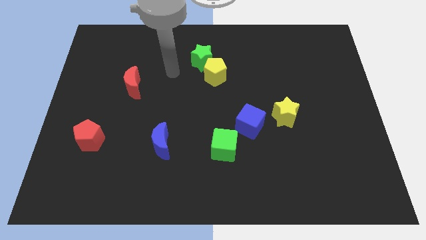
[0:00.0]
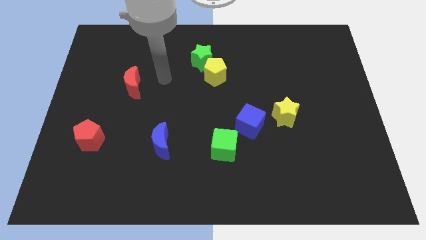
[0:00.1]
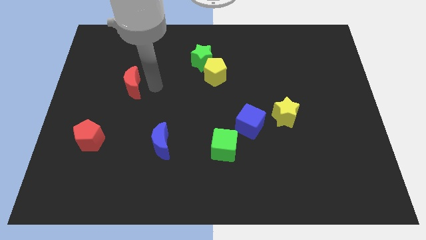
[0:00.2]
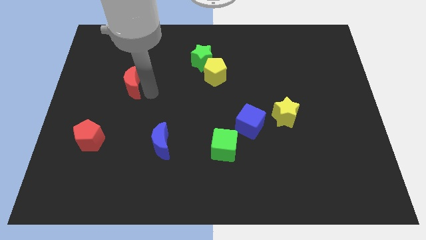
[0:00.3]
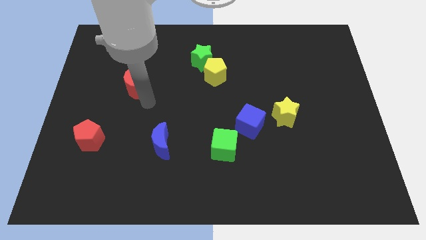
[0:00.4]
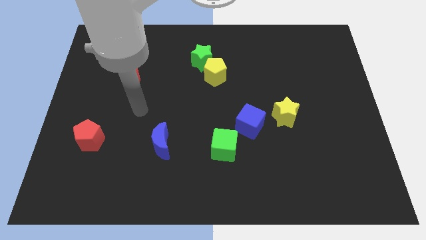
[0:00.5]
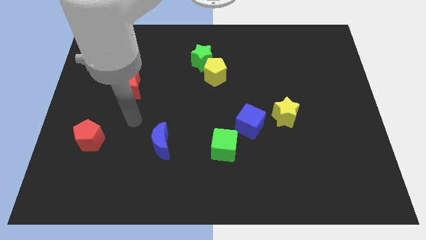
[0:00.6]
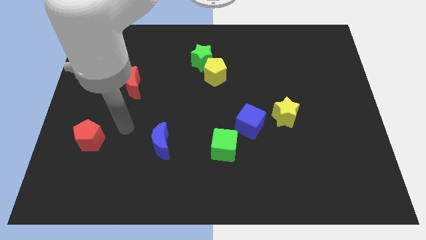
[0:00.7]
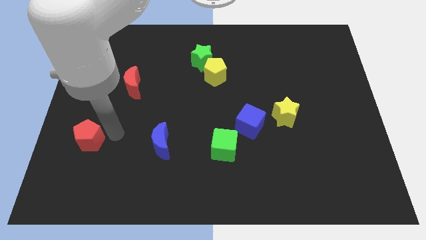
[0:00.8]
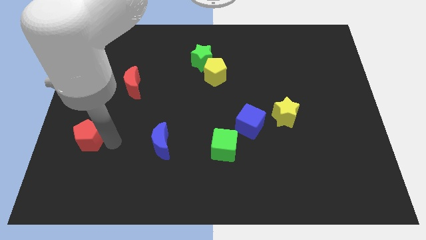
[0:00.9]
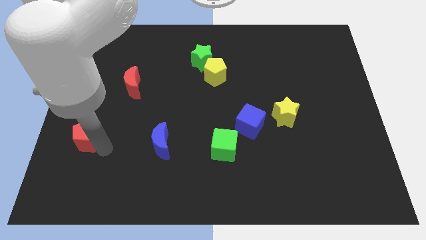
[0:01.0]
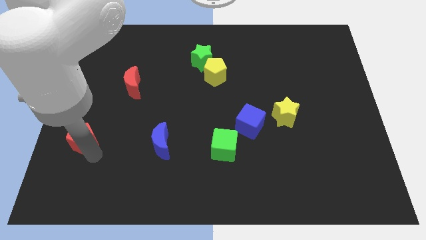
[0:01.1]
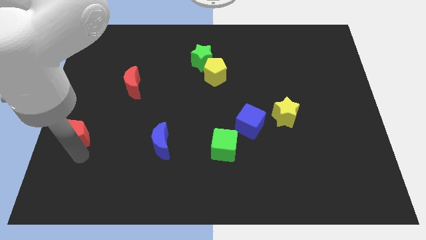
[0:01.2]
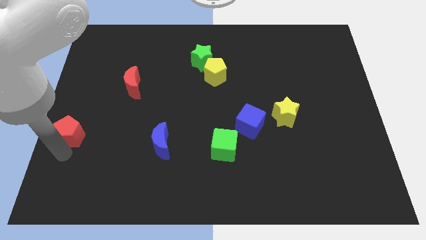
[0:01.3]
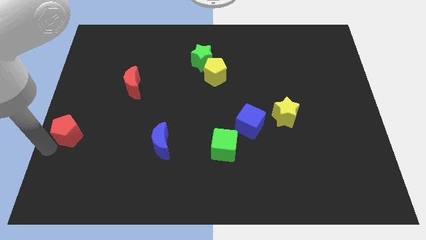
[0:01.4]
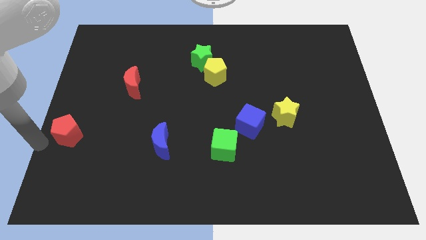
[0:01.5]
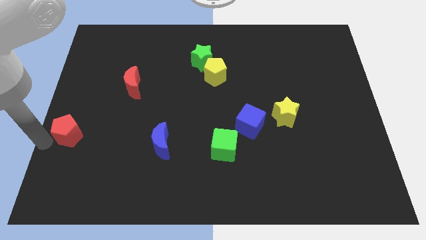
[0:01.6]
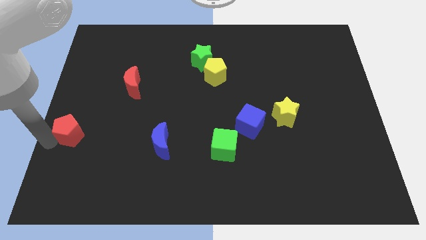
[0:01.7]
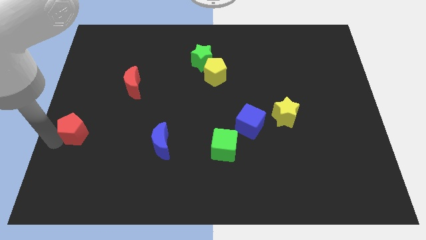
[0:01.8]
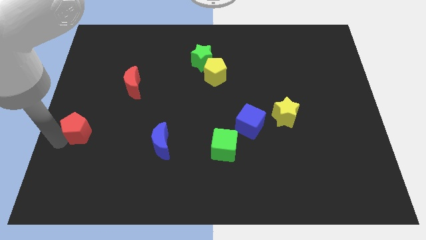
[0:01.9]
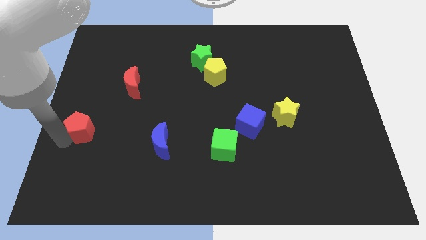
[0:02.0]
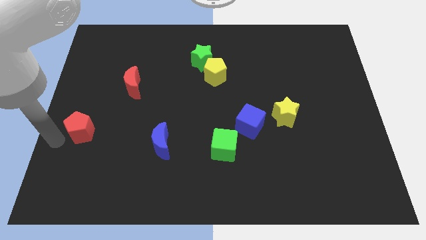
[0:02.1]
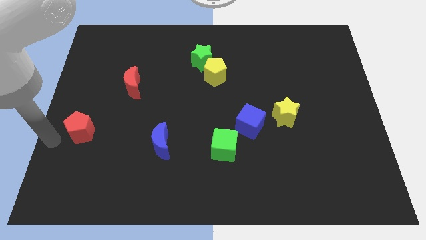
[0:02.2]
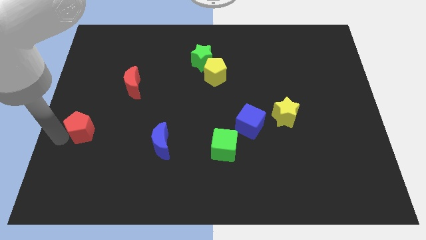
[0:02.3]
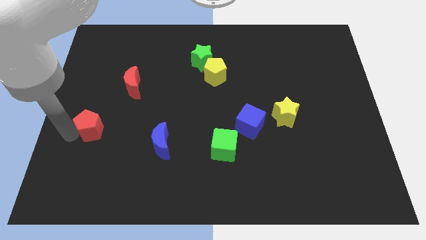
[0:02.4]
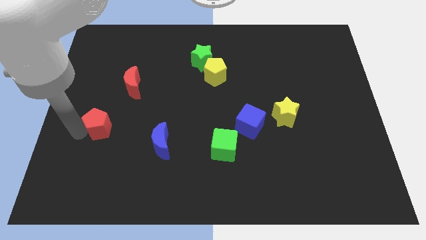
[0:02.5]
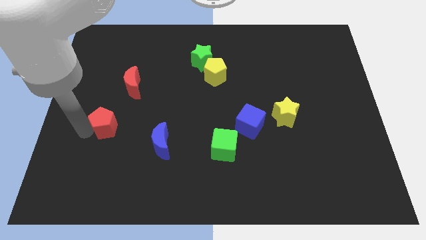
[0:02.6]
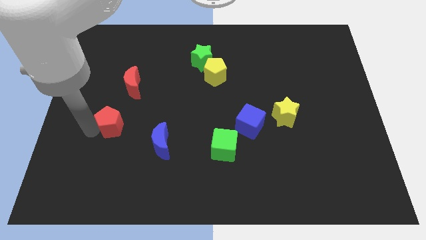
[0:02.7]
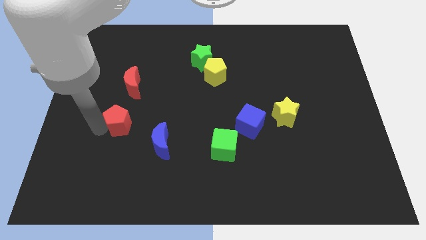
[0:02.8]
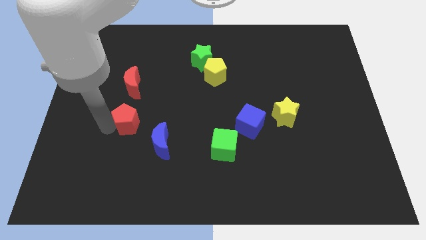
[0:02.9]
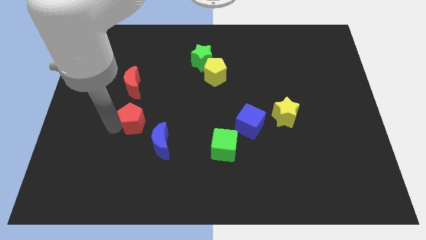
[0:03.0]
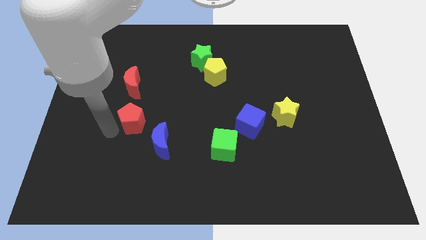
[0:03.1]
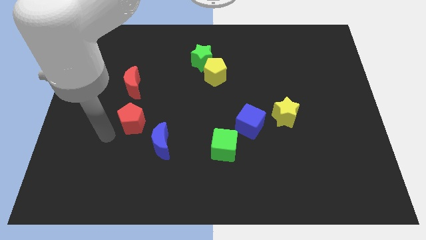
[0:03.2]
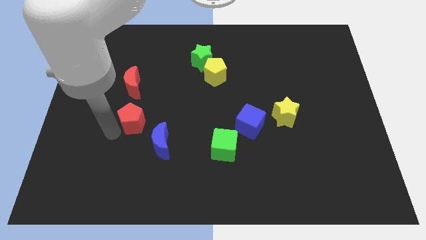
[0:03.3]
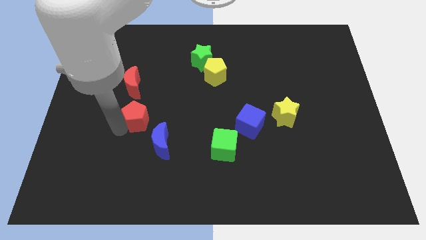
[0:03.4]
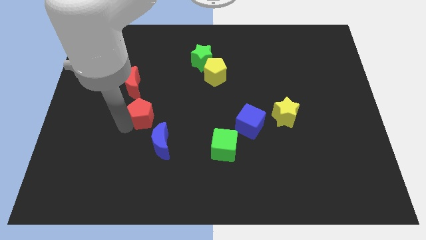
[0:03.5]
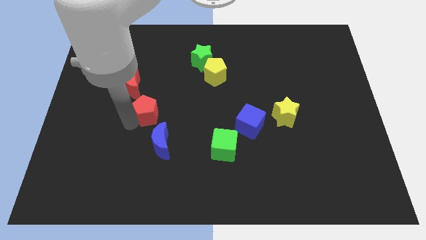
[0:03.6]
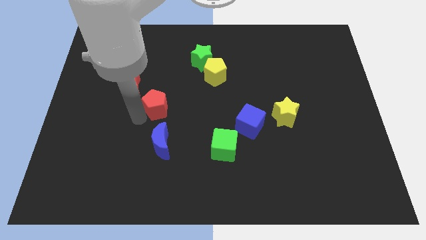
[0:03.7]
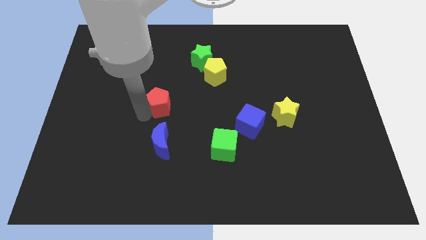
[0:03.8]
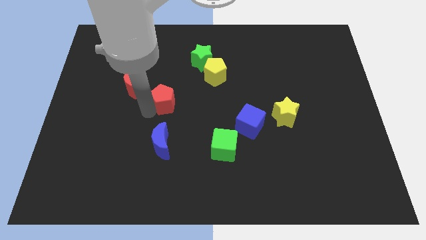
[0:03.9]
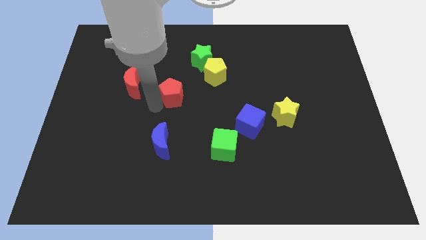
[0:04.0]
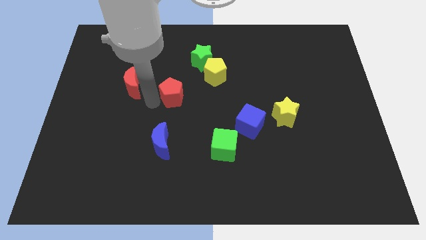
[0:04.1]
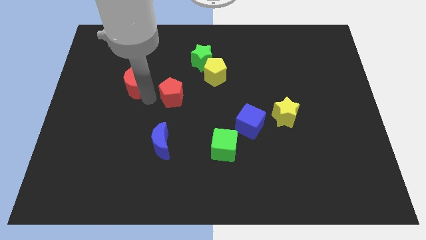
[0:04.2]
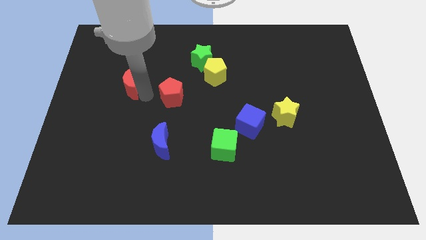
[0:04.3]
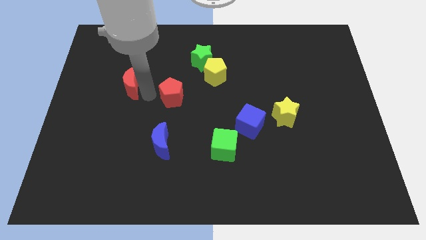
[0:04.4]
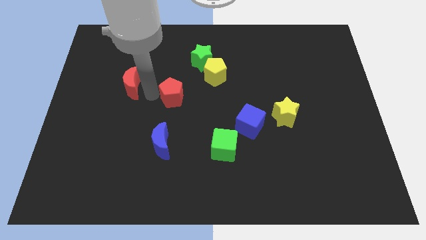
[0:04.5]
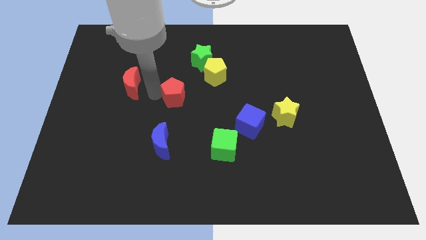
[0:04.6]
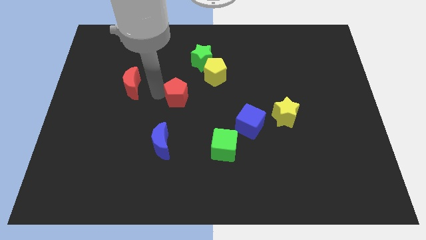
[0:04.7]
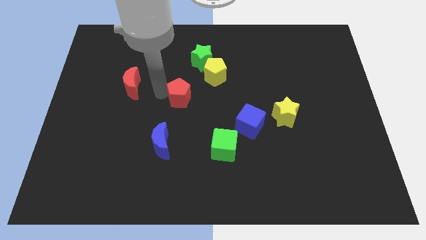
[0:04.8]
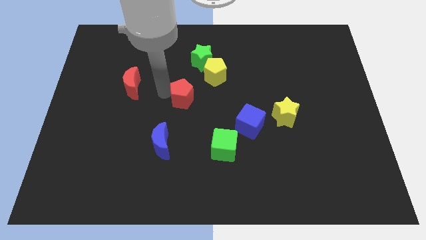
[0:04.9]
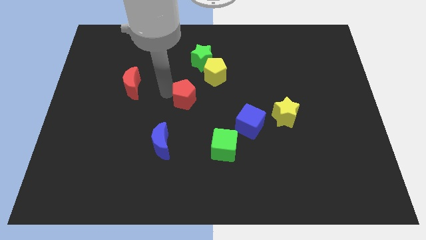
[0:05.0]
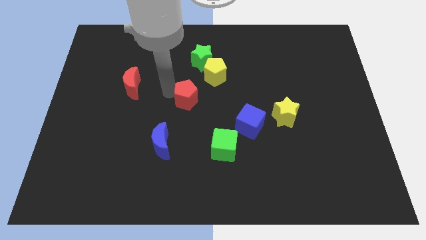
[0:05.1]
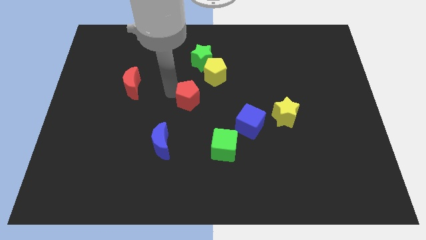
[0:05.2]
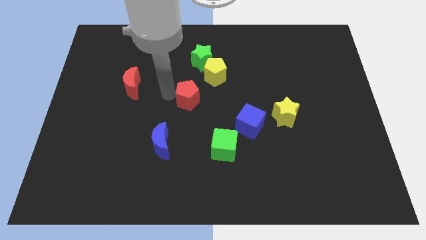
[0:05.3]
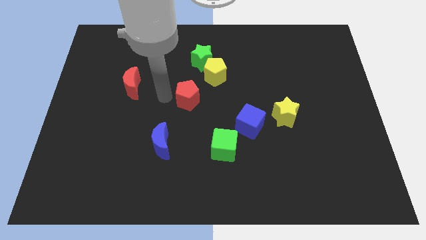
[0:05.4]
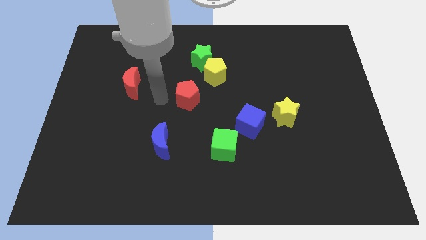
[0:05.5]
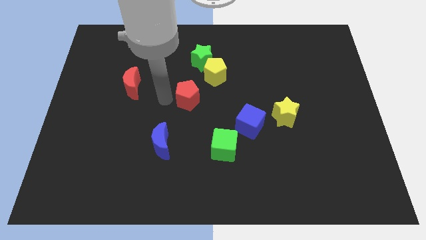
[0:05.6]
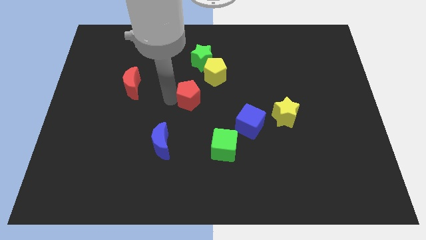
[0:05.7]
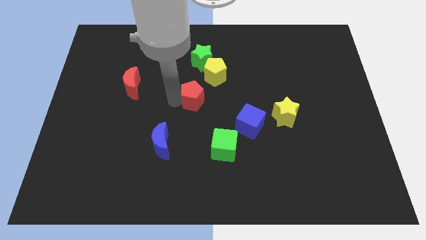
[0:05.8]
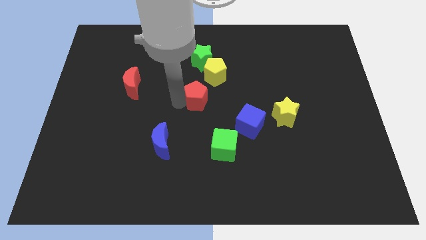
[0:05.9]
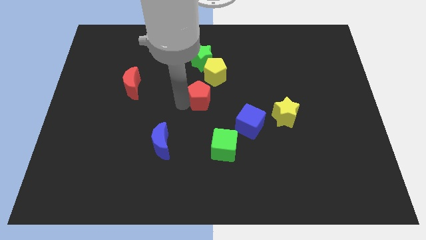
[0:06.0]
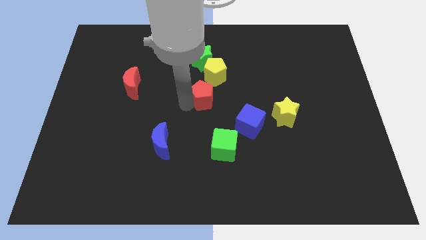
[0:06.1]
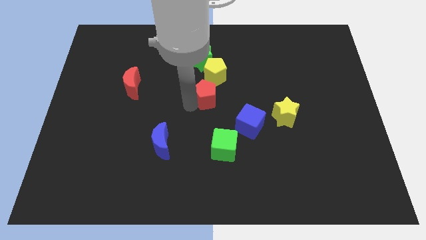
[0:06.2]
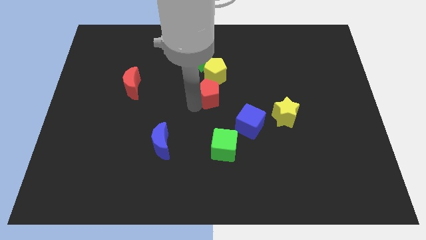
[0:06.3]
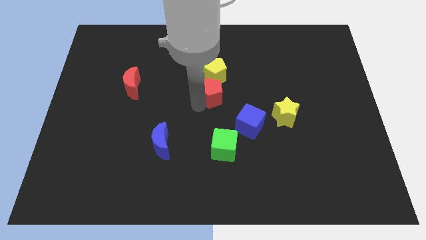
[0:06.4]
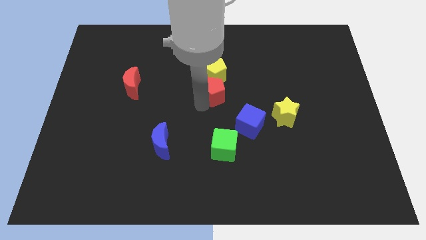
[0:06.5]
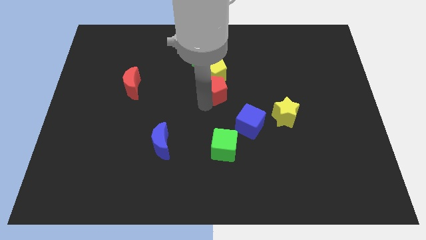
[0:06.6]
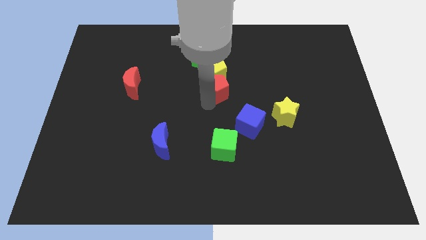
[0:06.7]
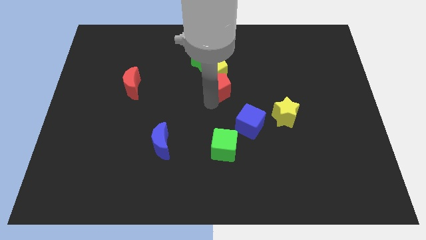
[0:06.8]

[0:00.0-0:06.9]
move the red pentagon to the bottom right of the green star
